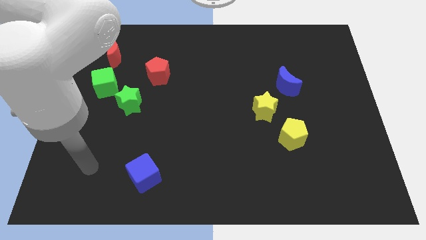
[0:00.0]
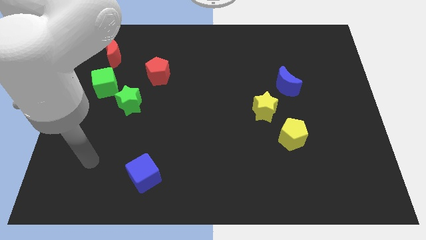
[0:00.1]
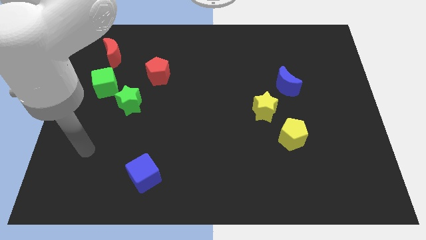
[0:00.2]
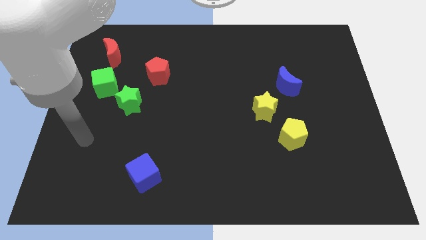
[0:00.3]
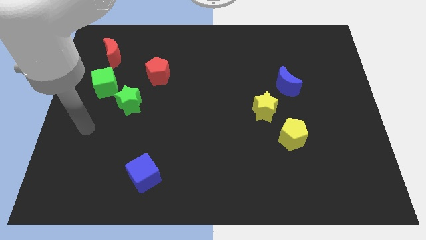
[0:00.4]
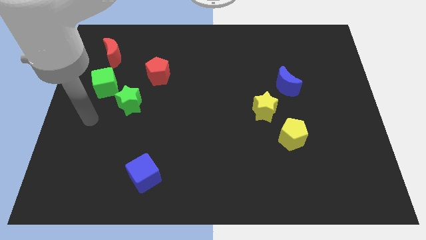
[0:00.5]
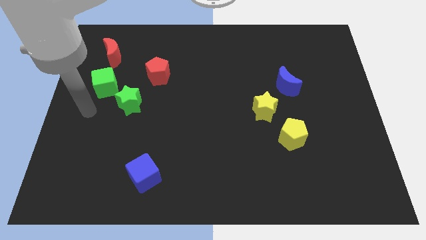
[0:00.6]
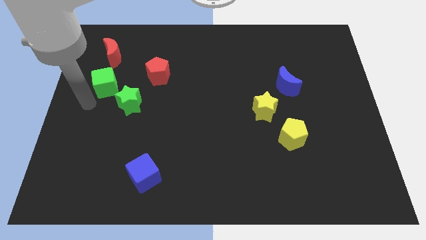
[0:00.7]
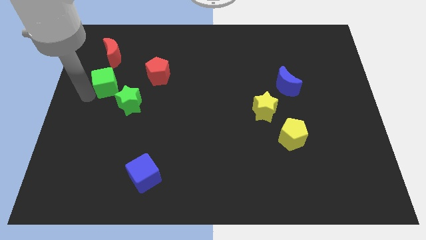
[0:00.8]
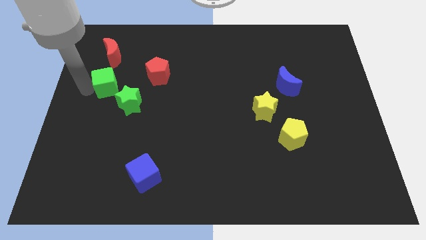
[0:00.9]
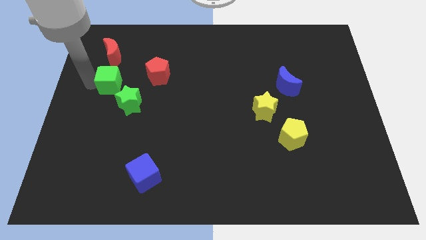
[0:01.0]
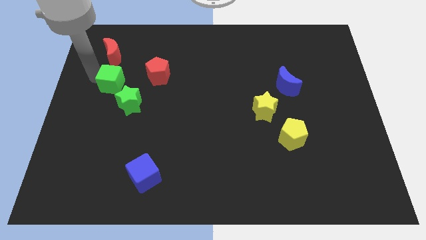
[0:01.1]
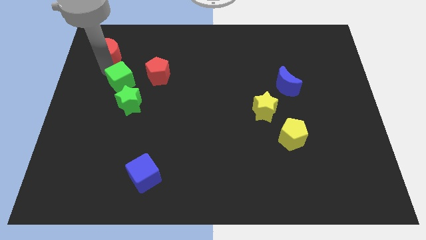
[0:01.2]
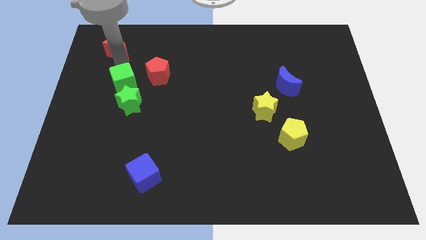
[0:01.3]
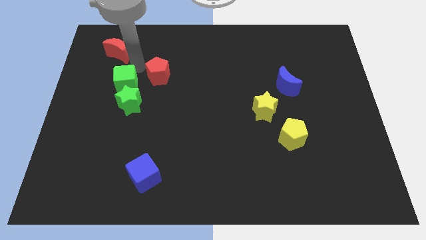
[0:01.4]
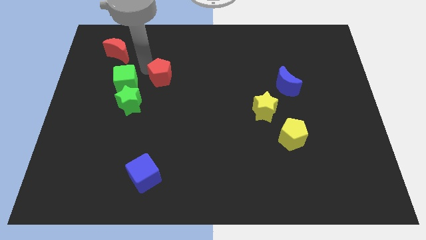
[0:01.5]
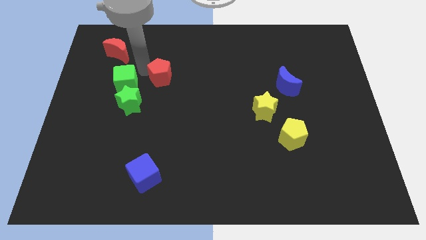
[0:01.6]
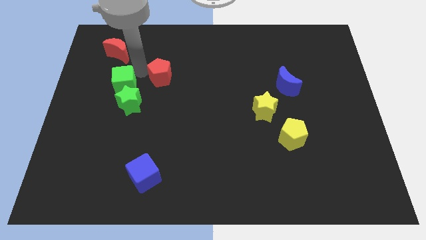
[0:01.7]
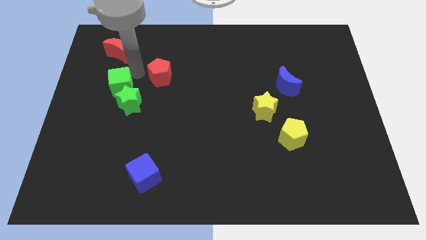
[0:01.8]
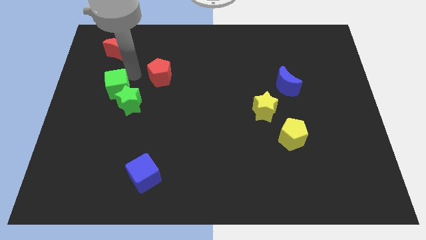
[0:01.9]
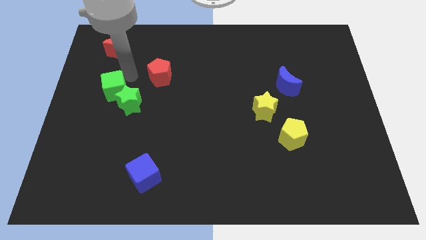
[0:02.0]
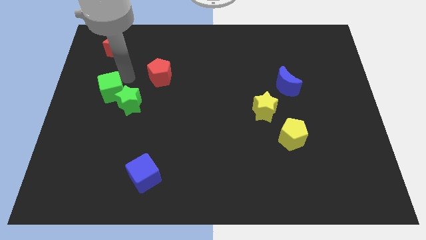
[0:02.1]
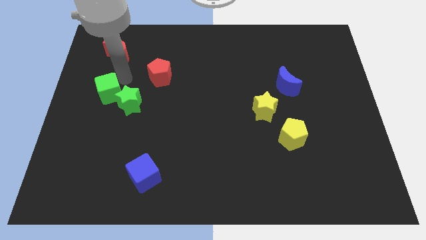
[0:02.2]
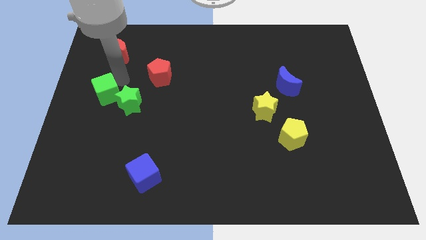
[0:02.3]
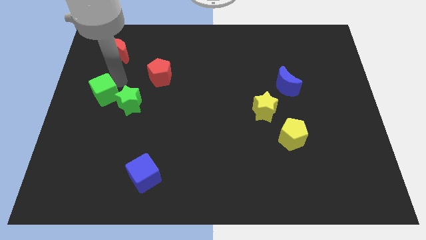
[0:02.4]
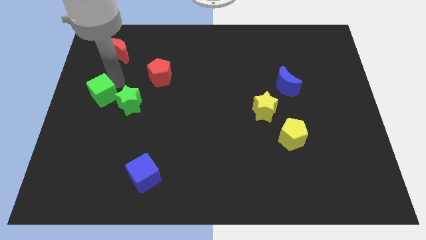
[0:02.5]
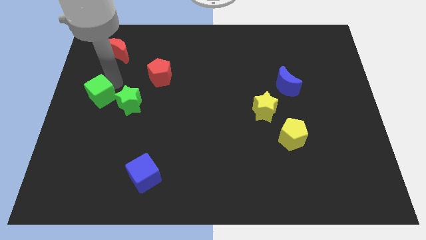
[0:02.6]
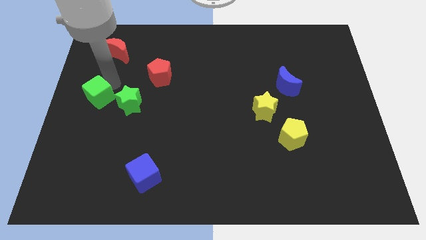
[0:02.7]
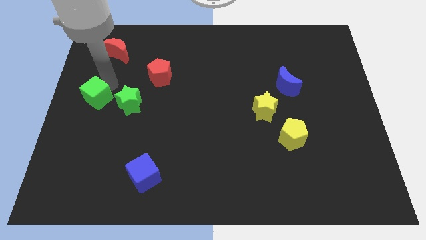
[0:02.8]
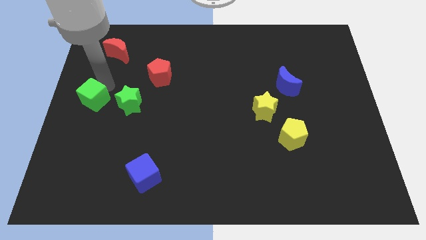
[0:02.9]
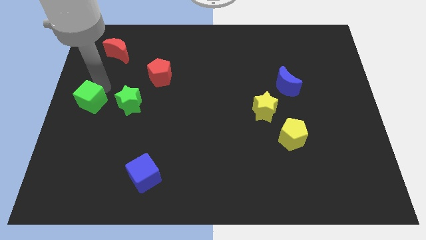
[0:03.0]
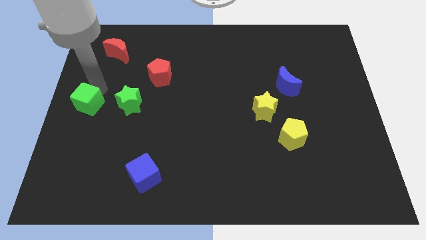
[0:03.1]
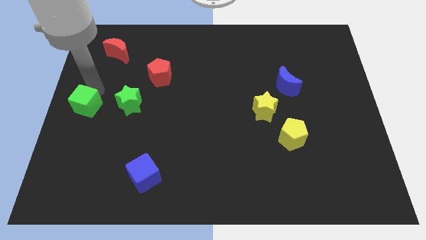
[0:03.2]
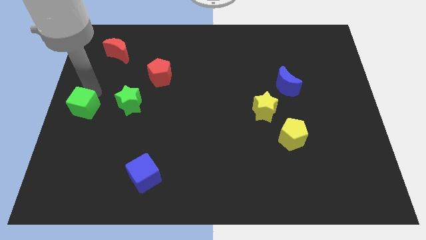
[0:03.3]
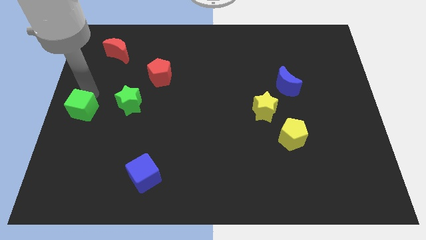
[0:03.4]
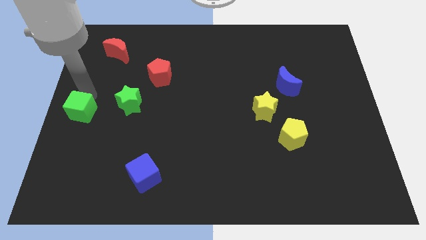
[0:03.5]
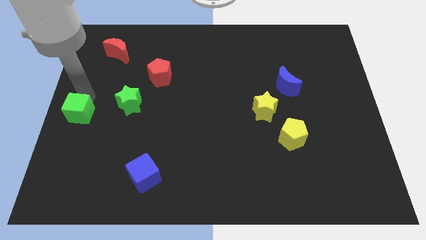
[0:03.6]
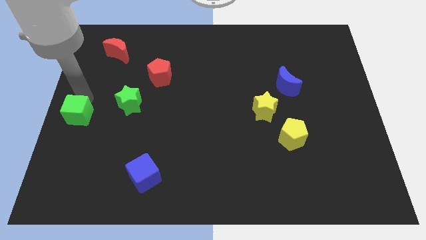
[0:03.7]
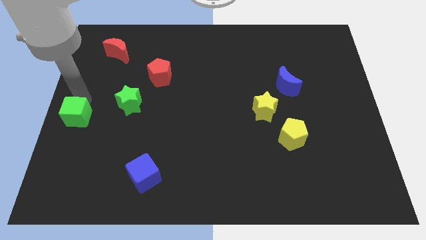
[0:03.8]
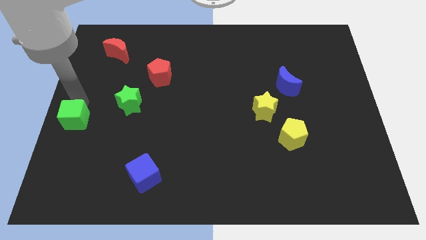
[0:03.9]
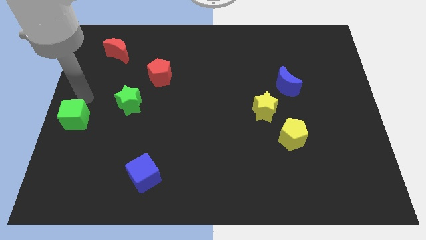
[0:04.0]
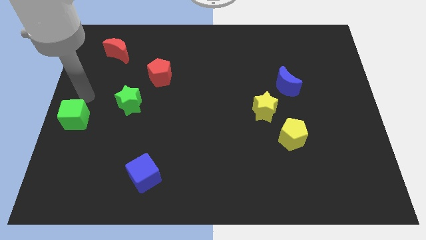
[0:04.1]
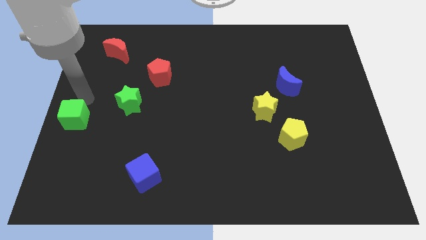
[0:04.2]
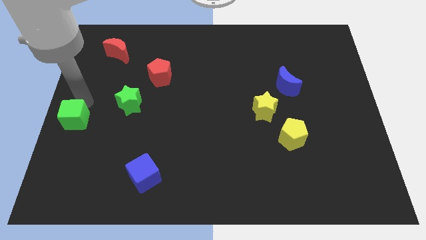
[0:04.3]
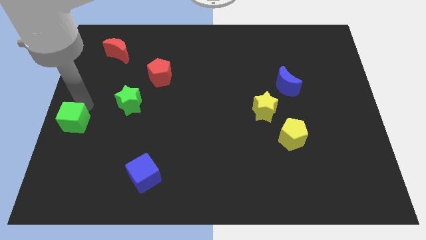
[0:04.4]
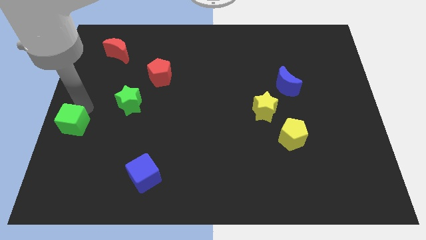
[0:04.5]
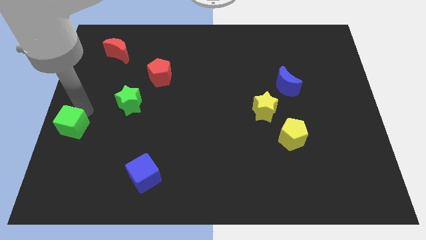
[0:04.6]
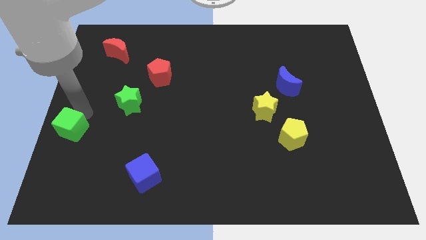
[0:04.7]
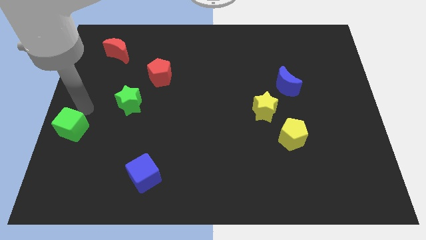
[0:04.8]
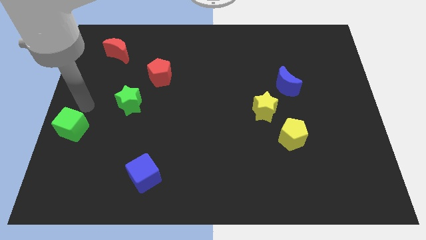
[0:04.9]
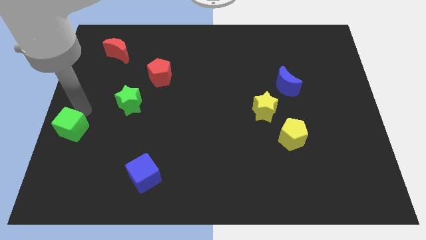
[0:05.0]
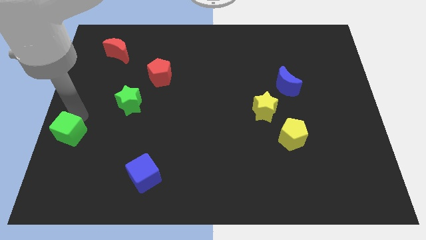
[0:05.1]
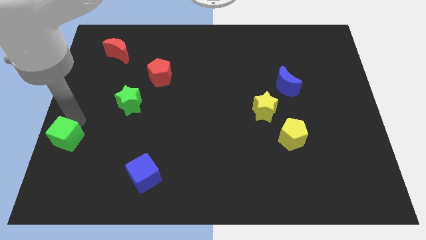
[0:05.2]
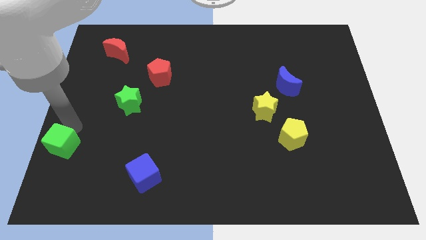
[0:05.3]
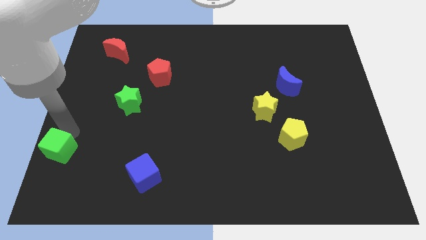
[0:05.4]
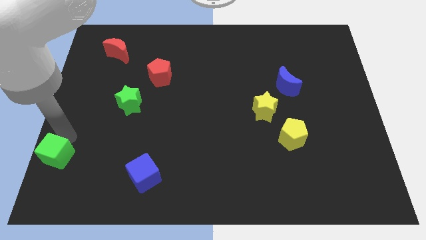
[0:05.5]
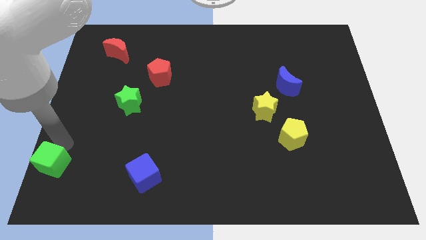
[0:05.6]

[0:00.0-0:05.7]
put the green cube to the bottom left

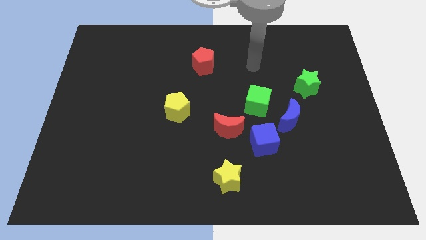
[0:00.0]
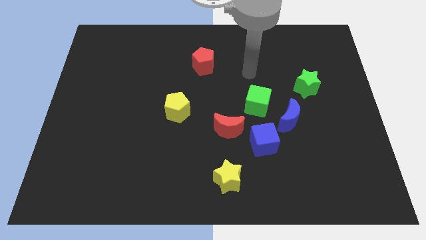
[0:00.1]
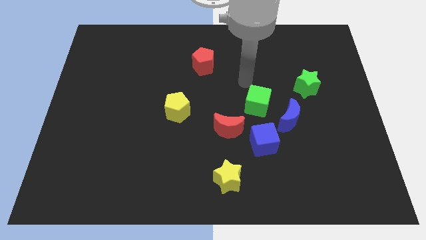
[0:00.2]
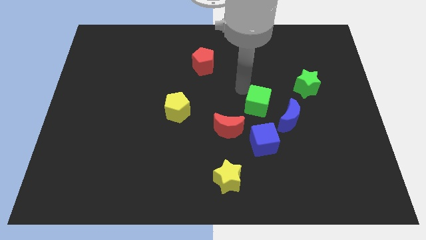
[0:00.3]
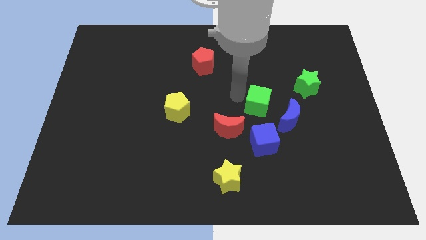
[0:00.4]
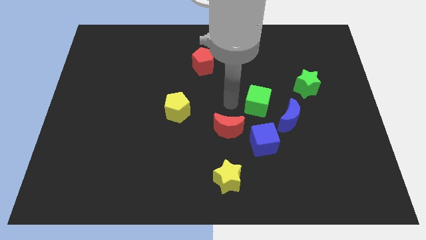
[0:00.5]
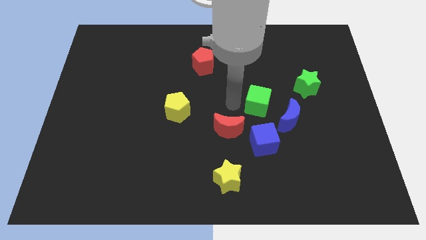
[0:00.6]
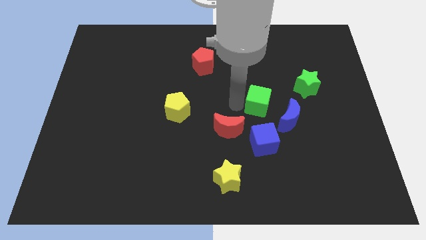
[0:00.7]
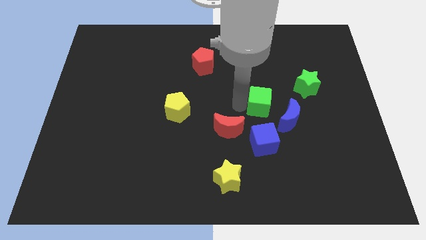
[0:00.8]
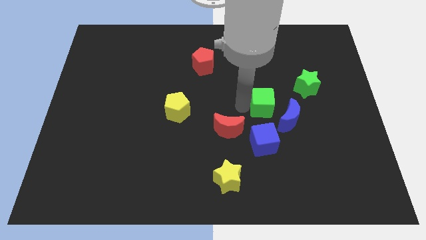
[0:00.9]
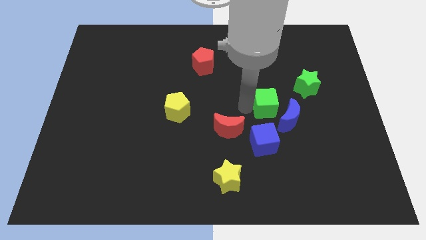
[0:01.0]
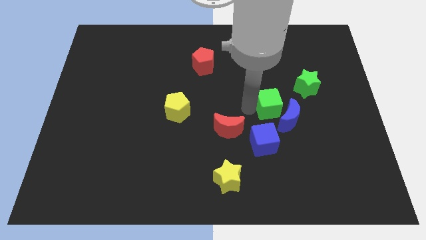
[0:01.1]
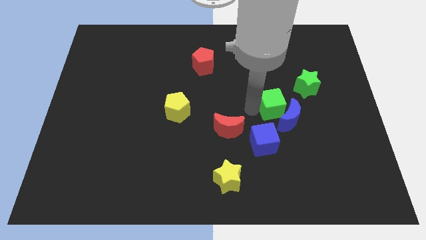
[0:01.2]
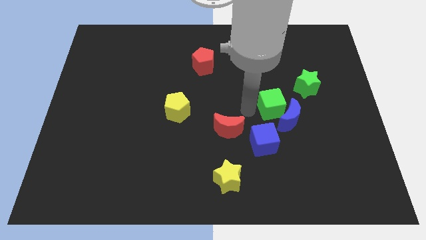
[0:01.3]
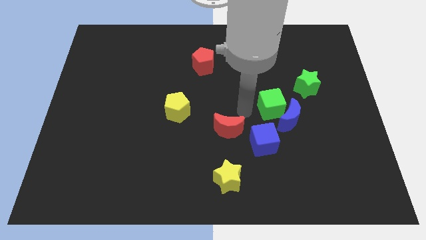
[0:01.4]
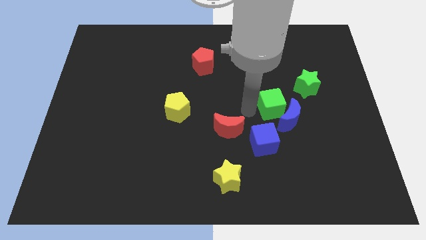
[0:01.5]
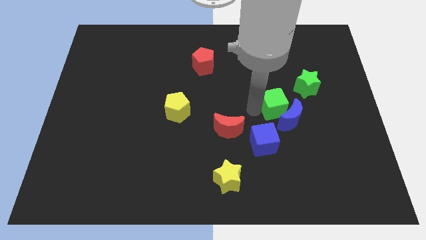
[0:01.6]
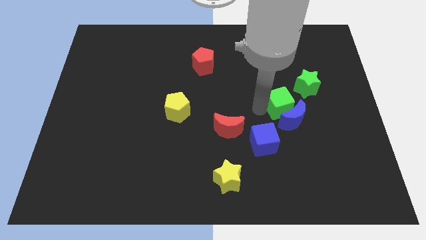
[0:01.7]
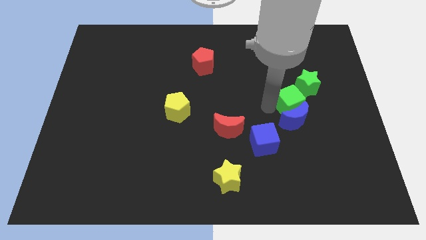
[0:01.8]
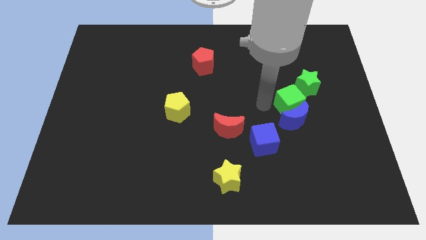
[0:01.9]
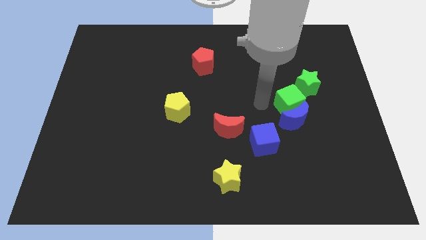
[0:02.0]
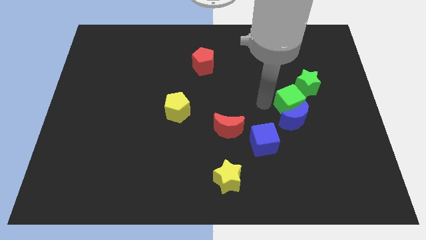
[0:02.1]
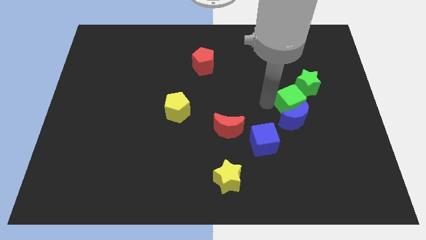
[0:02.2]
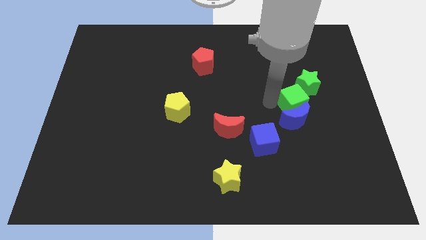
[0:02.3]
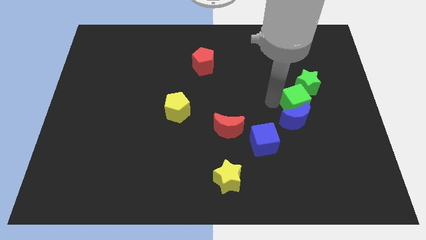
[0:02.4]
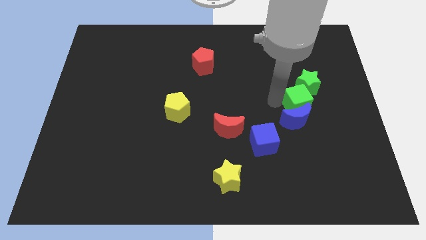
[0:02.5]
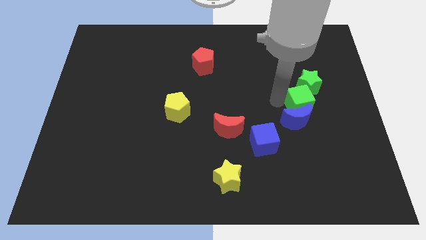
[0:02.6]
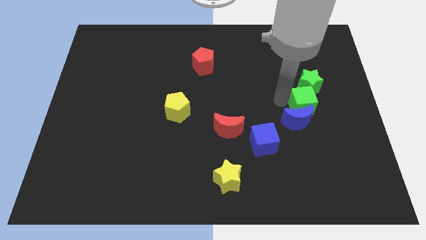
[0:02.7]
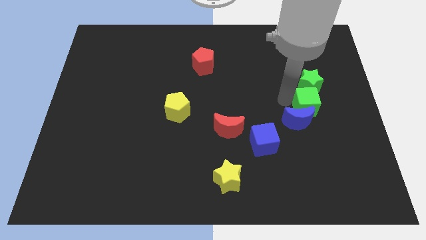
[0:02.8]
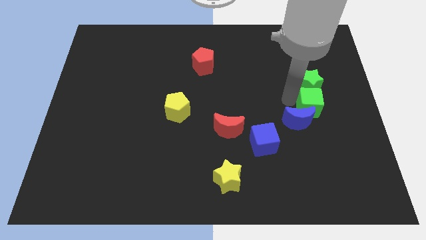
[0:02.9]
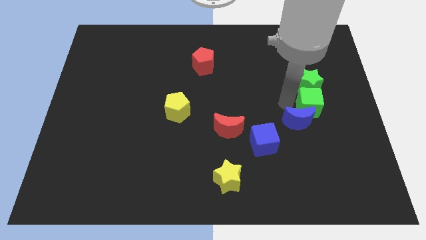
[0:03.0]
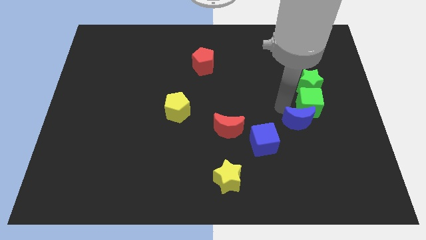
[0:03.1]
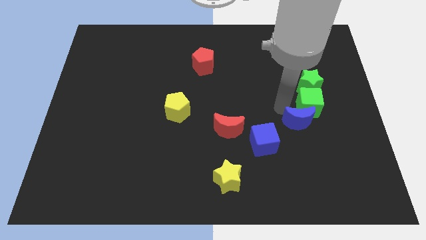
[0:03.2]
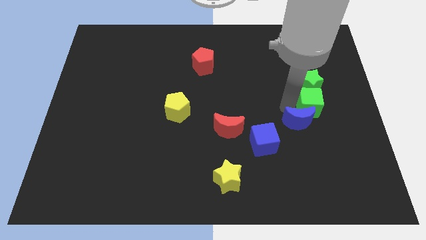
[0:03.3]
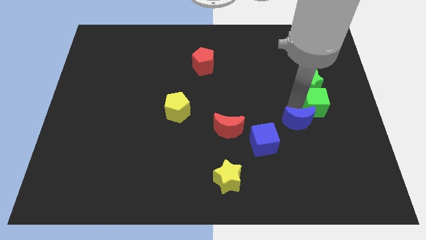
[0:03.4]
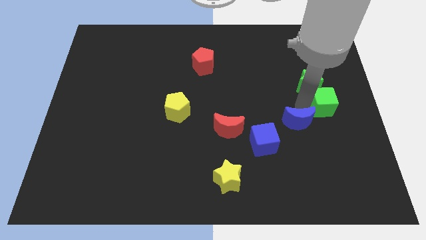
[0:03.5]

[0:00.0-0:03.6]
push the green cube to the right side
